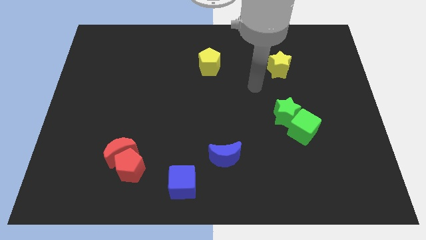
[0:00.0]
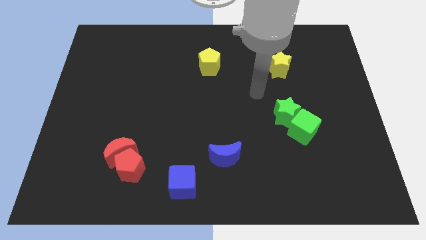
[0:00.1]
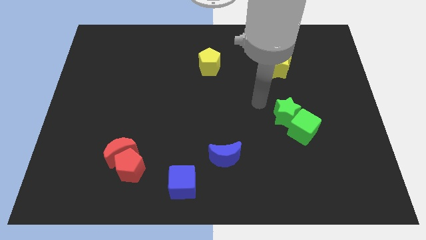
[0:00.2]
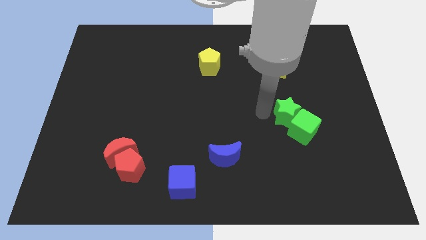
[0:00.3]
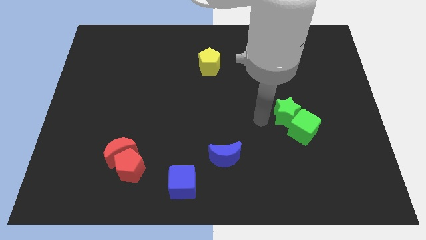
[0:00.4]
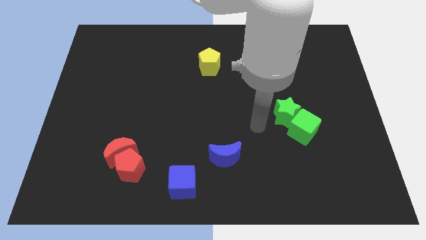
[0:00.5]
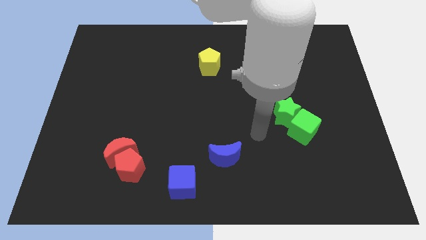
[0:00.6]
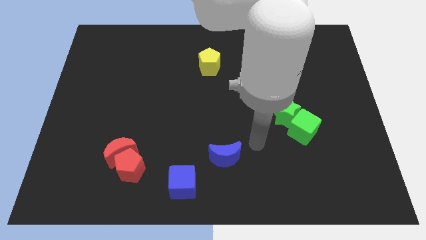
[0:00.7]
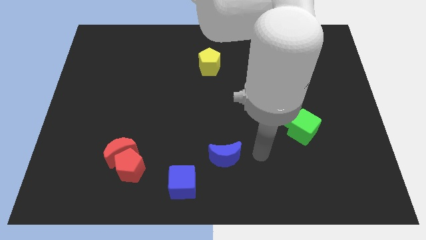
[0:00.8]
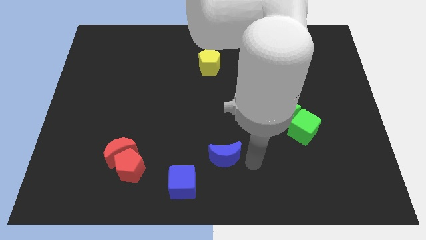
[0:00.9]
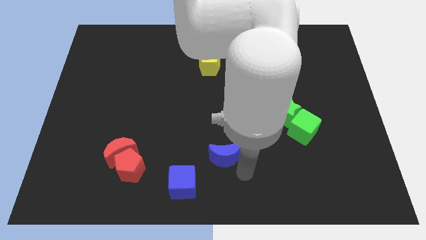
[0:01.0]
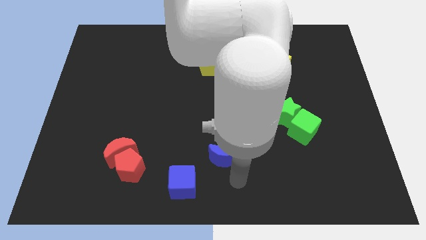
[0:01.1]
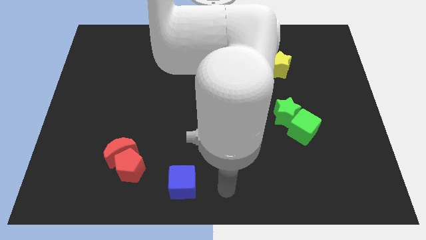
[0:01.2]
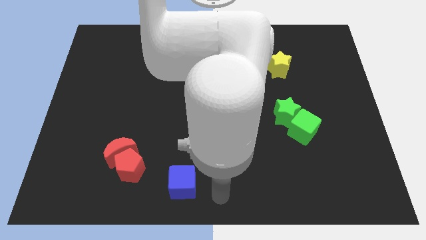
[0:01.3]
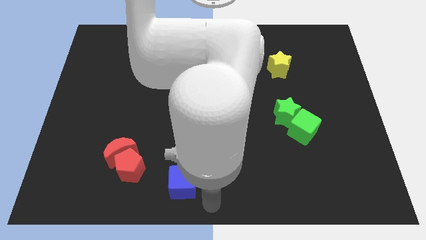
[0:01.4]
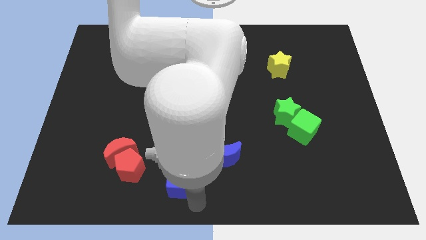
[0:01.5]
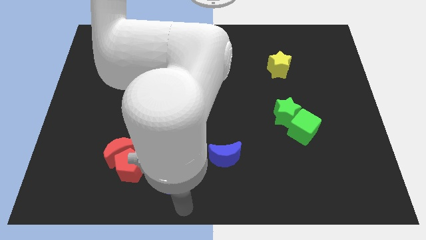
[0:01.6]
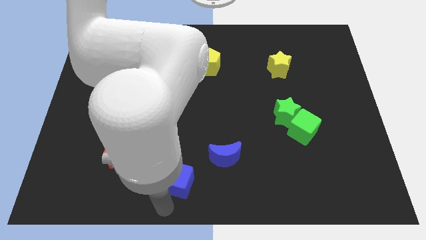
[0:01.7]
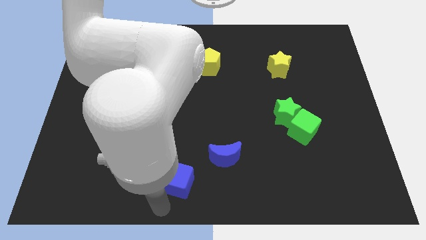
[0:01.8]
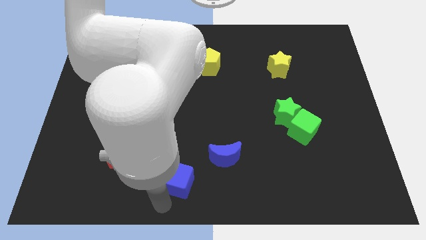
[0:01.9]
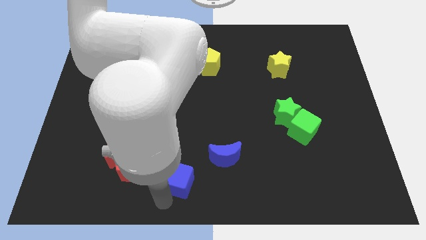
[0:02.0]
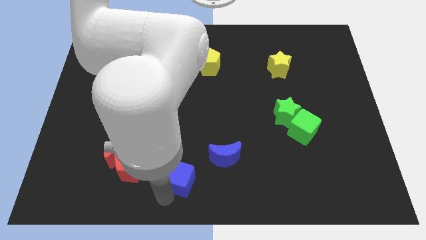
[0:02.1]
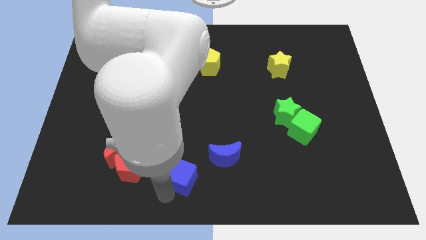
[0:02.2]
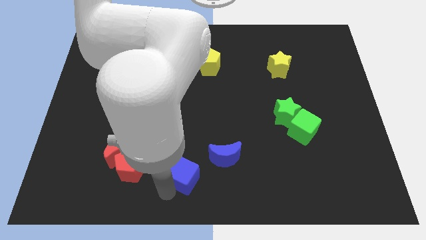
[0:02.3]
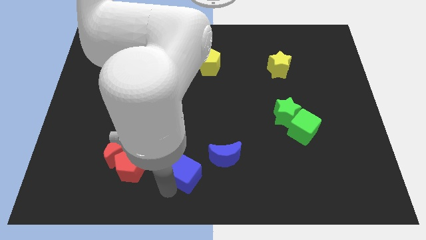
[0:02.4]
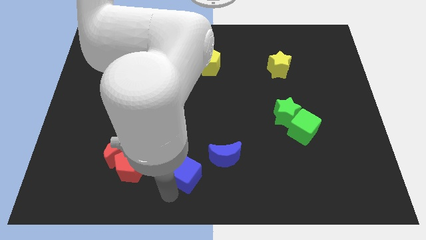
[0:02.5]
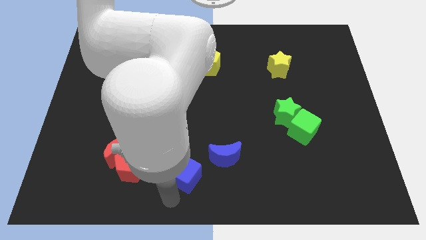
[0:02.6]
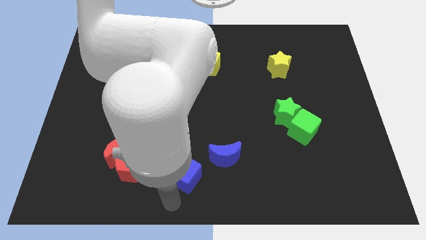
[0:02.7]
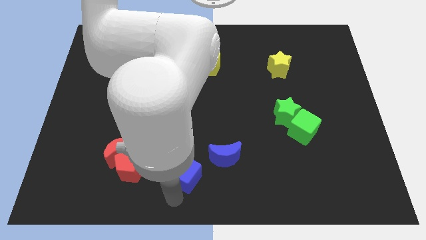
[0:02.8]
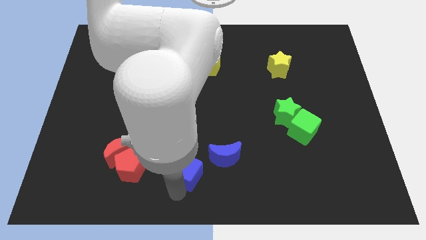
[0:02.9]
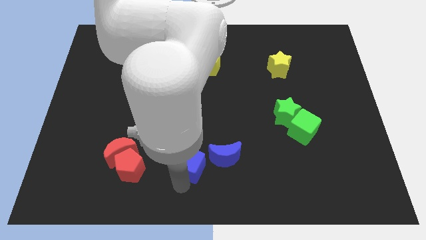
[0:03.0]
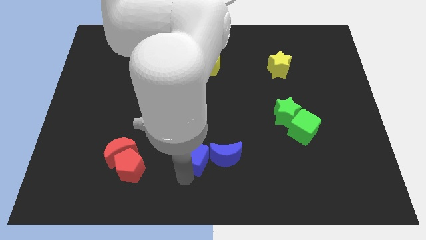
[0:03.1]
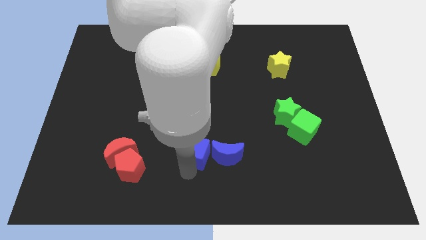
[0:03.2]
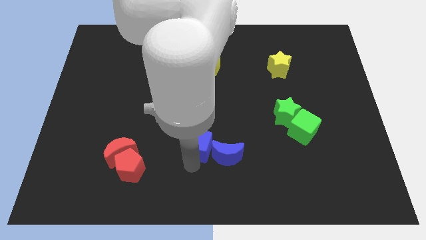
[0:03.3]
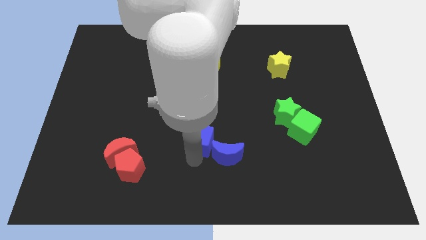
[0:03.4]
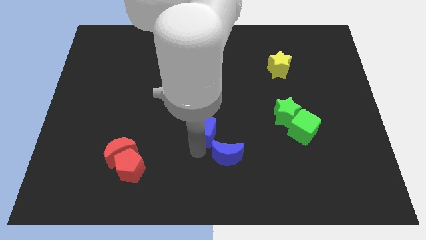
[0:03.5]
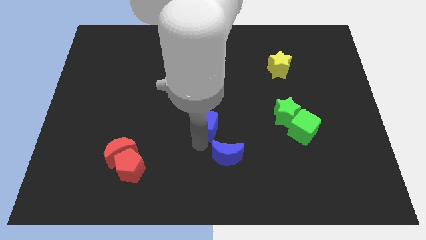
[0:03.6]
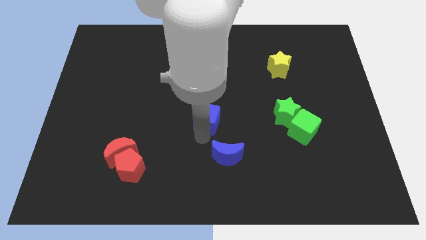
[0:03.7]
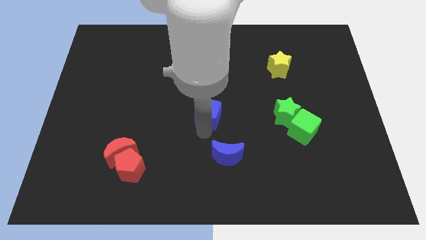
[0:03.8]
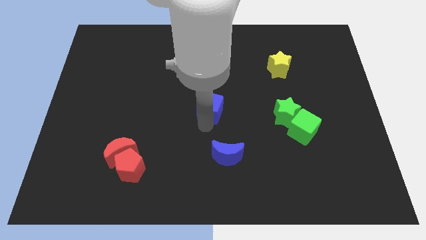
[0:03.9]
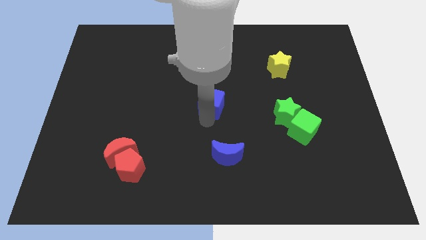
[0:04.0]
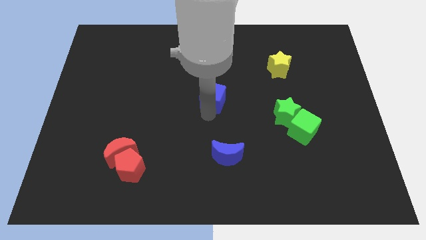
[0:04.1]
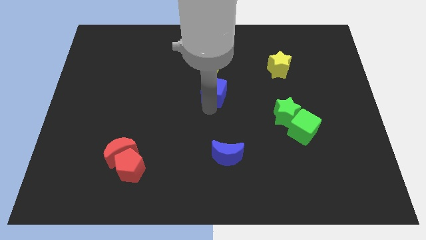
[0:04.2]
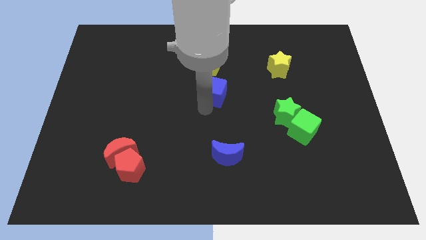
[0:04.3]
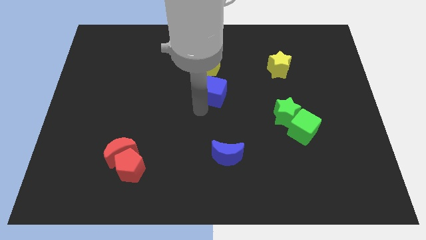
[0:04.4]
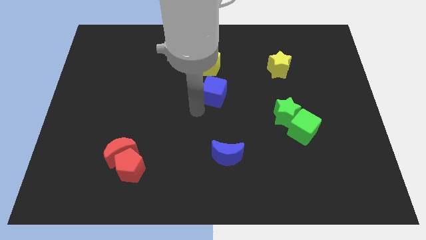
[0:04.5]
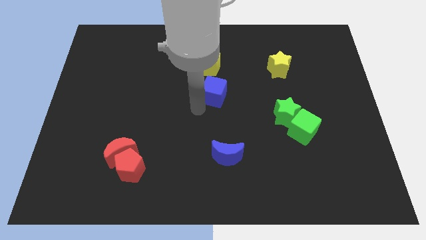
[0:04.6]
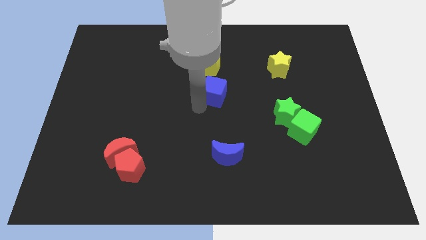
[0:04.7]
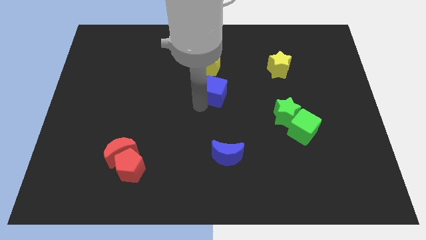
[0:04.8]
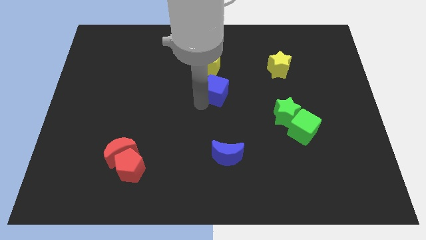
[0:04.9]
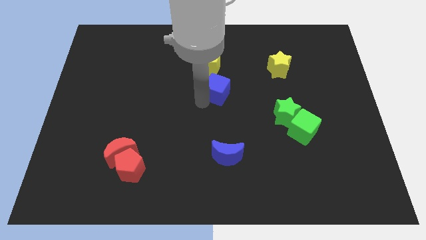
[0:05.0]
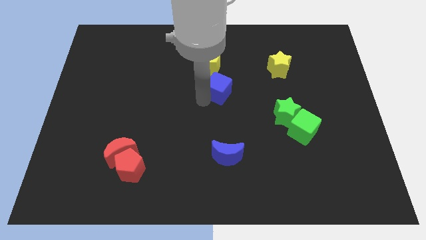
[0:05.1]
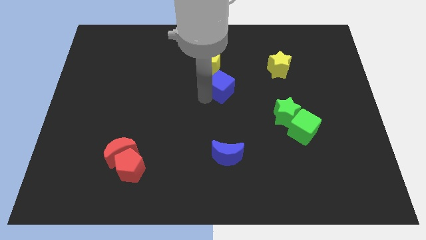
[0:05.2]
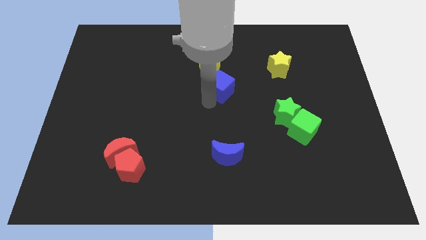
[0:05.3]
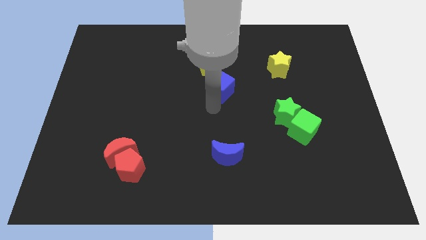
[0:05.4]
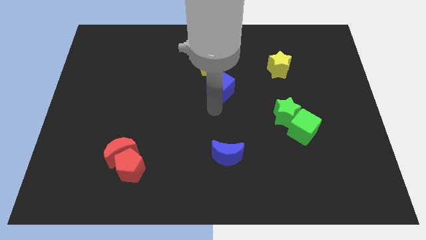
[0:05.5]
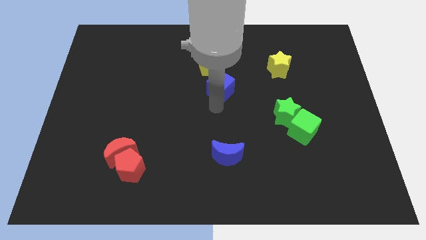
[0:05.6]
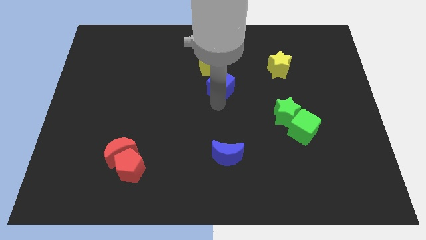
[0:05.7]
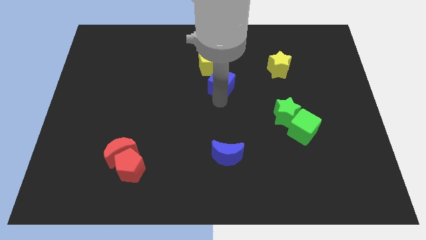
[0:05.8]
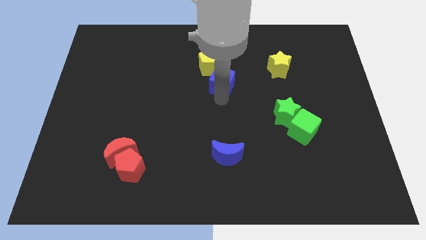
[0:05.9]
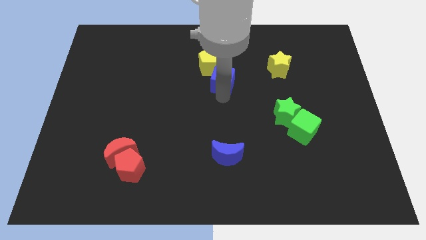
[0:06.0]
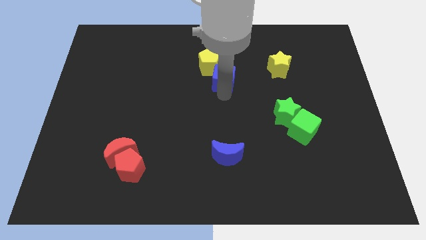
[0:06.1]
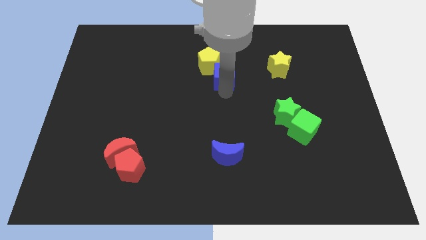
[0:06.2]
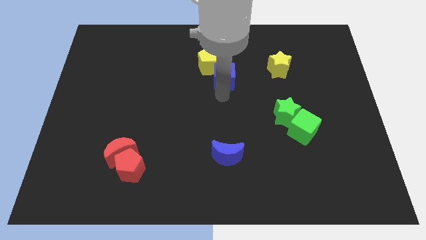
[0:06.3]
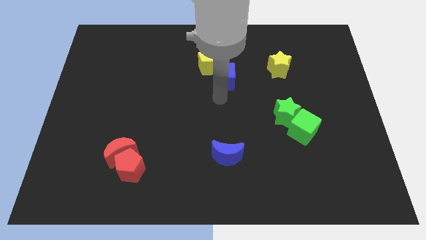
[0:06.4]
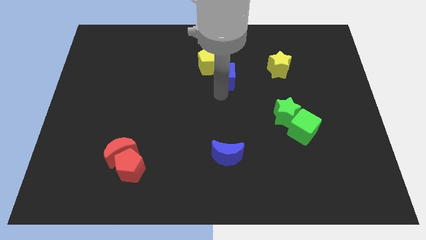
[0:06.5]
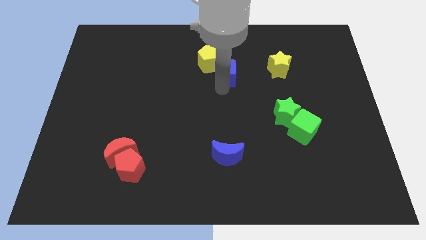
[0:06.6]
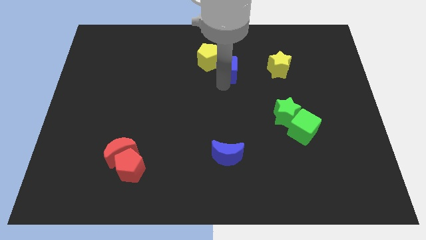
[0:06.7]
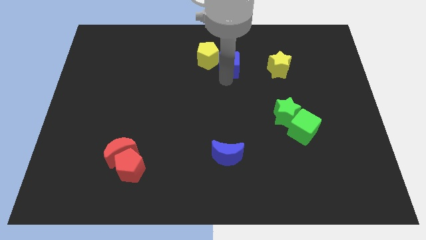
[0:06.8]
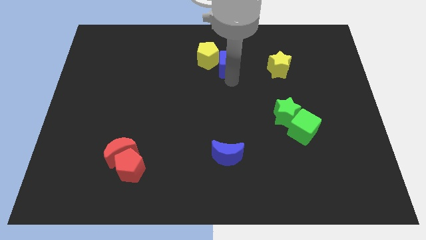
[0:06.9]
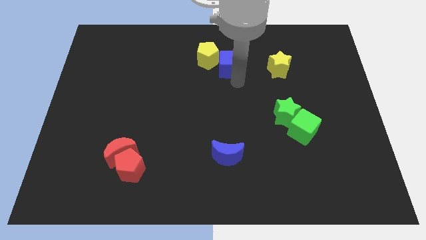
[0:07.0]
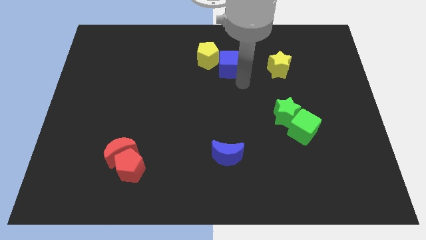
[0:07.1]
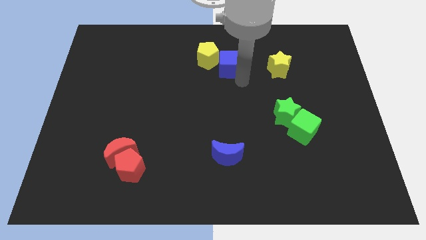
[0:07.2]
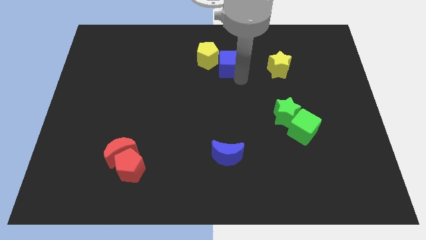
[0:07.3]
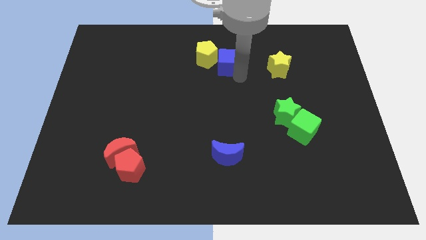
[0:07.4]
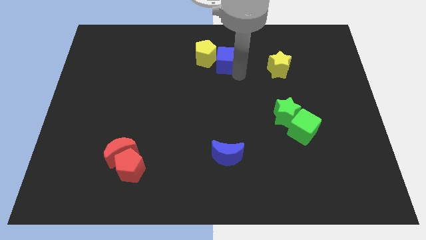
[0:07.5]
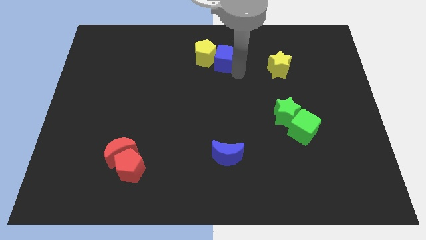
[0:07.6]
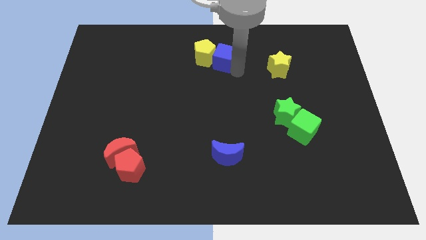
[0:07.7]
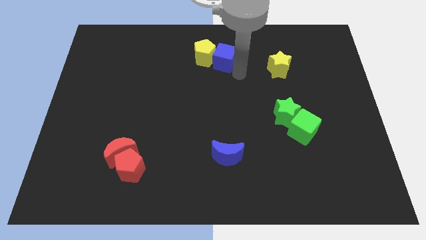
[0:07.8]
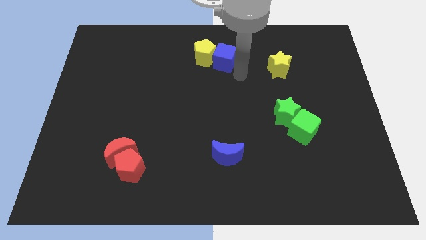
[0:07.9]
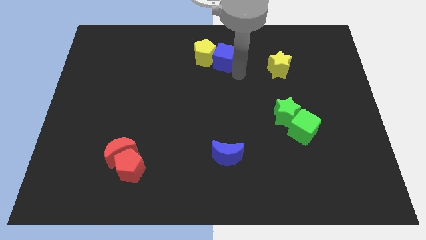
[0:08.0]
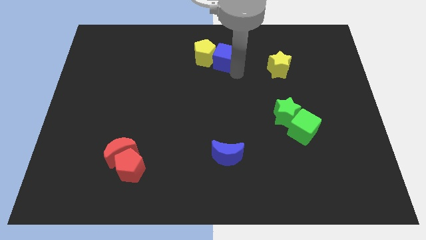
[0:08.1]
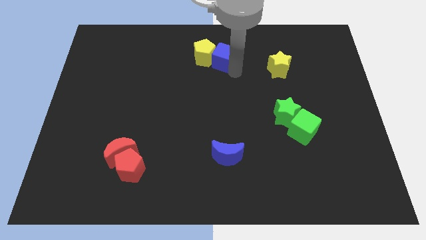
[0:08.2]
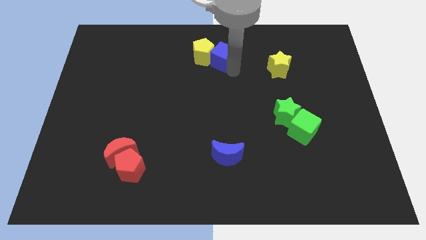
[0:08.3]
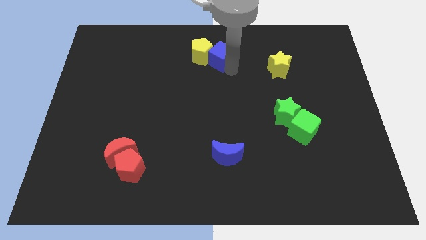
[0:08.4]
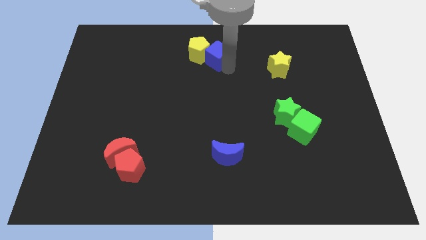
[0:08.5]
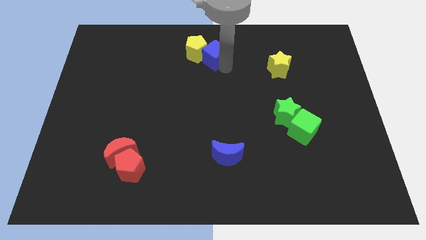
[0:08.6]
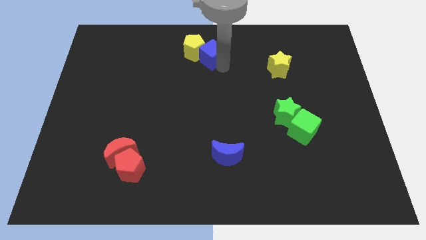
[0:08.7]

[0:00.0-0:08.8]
put the blue cube to the top side
